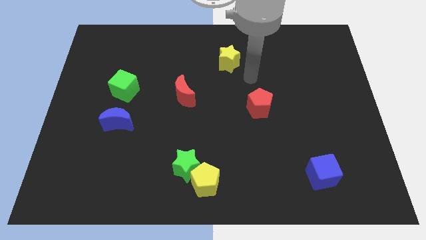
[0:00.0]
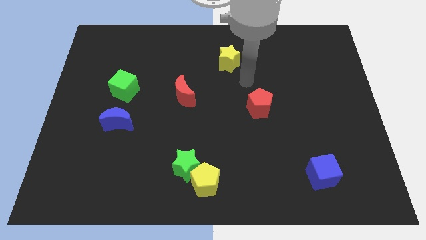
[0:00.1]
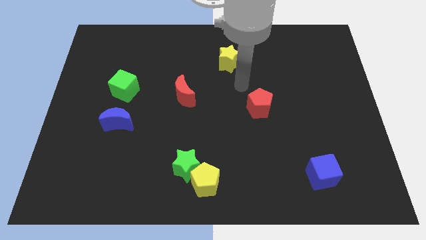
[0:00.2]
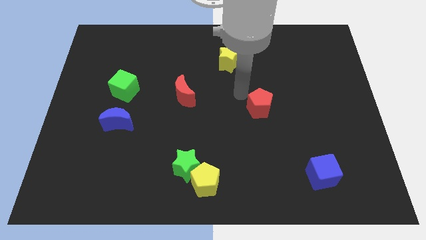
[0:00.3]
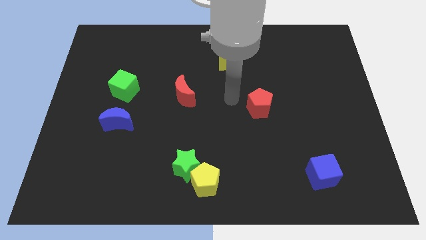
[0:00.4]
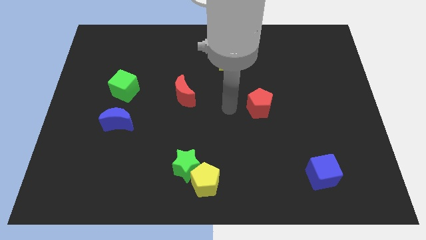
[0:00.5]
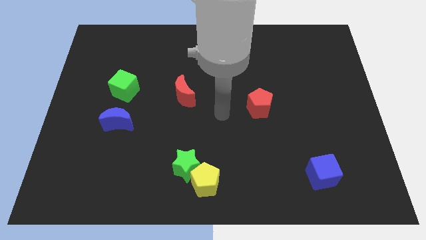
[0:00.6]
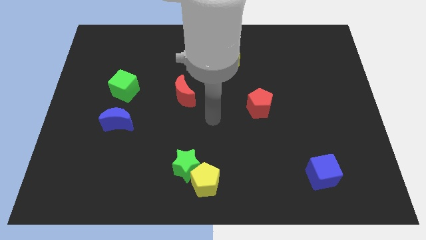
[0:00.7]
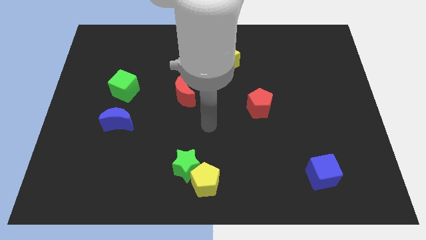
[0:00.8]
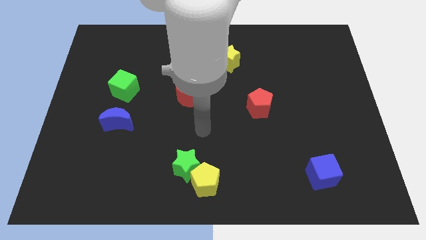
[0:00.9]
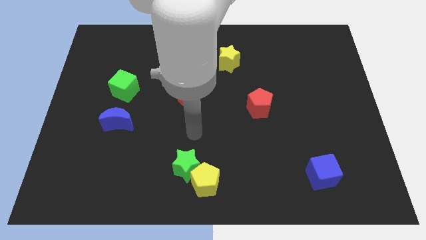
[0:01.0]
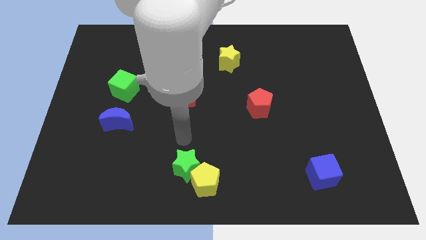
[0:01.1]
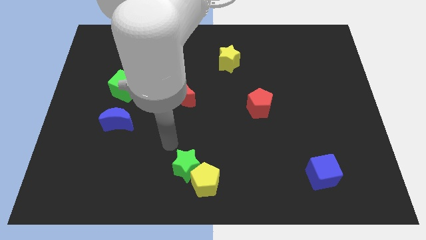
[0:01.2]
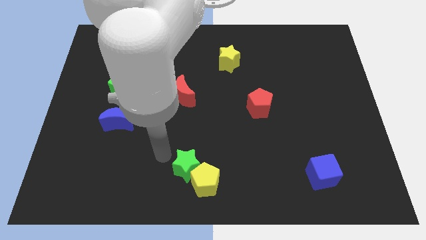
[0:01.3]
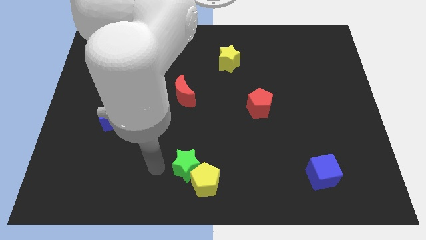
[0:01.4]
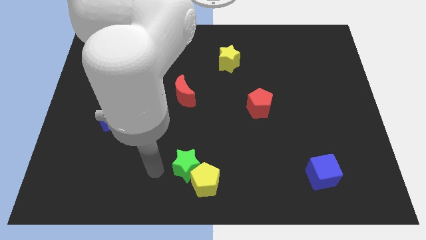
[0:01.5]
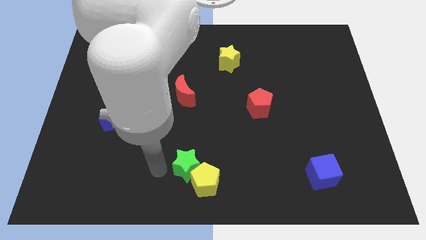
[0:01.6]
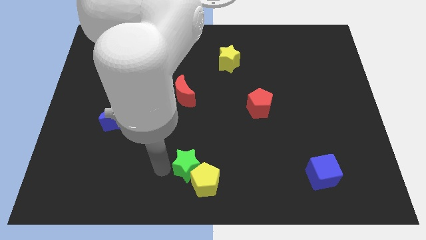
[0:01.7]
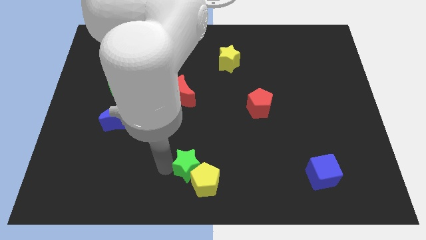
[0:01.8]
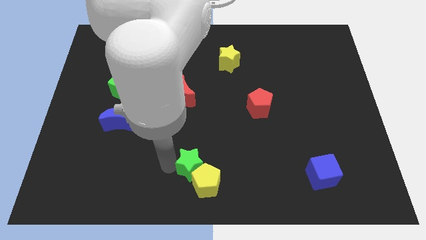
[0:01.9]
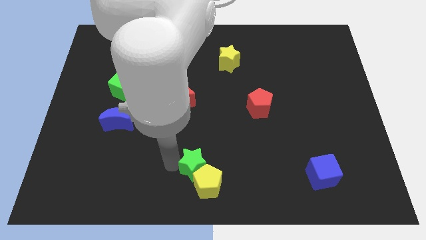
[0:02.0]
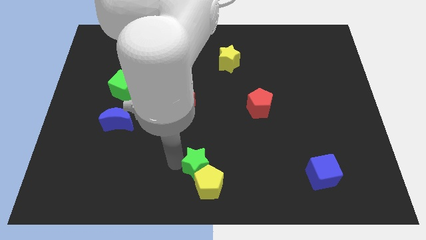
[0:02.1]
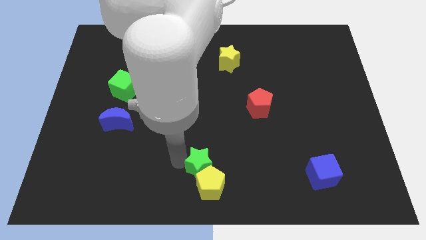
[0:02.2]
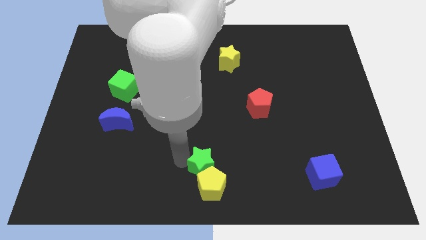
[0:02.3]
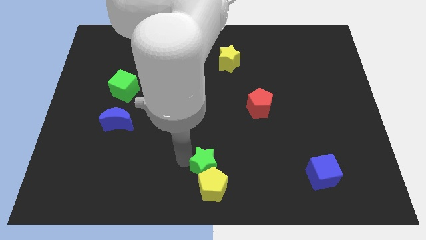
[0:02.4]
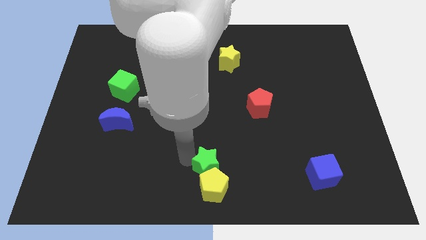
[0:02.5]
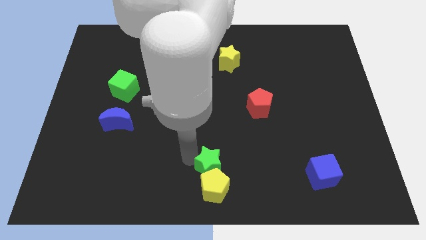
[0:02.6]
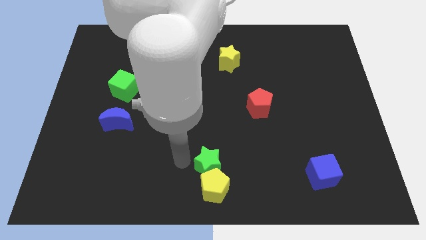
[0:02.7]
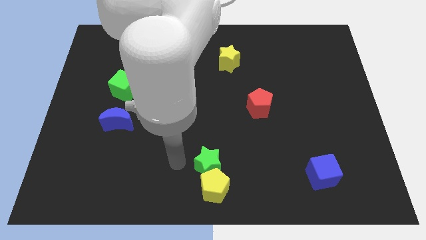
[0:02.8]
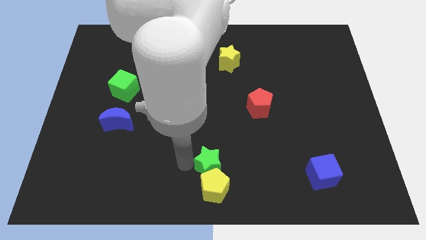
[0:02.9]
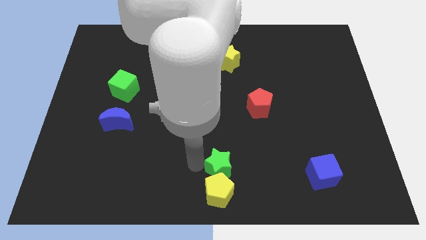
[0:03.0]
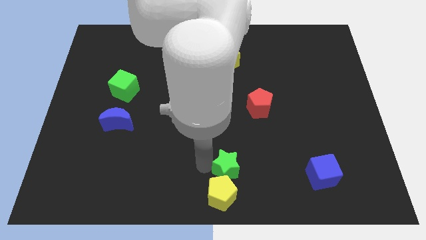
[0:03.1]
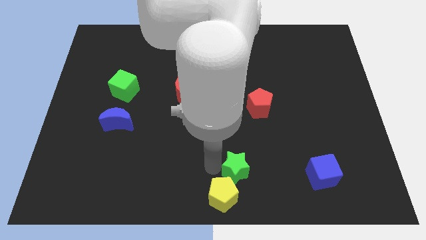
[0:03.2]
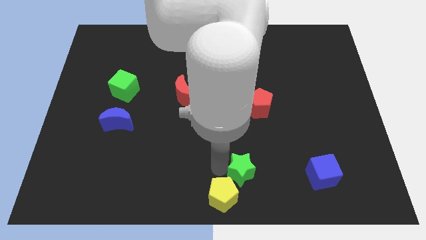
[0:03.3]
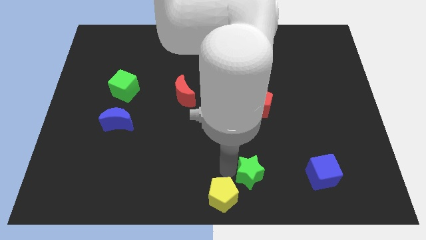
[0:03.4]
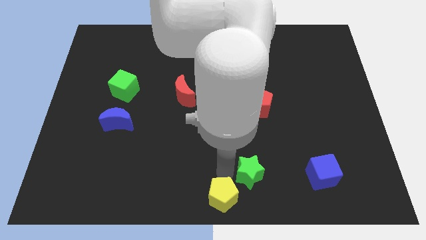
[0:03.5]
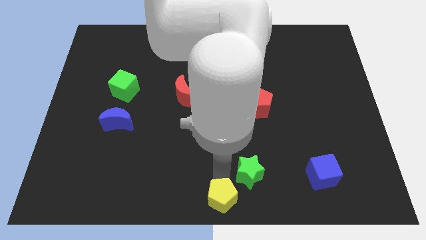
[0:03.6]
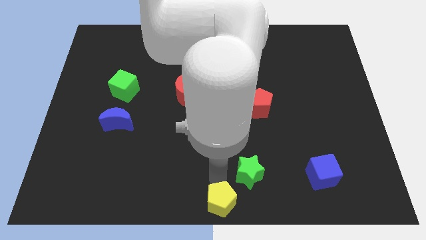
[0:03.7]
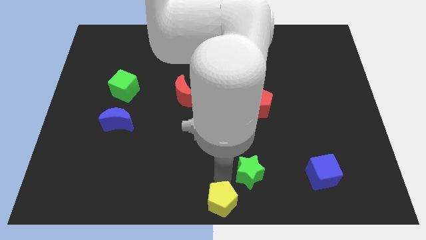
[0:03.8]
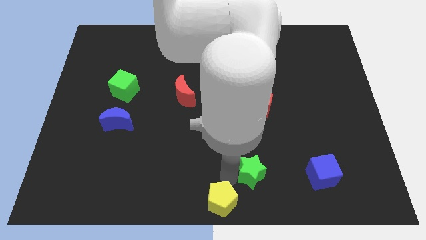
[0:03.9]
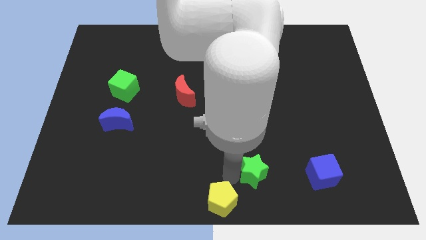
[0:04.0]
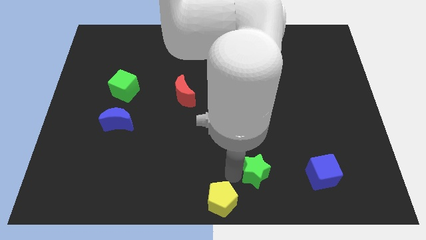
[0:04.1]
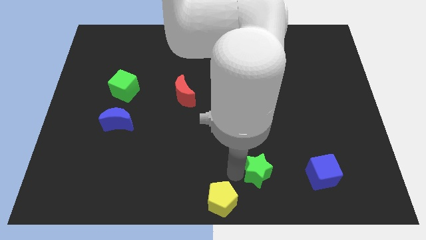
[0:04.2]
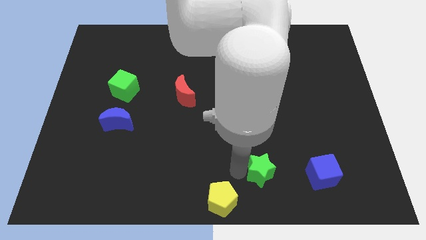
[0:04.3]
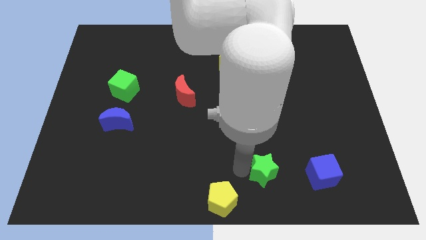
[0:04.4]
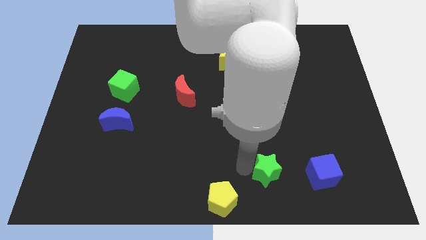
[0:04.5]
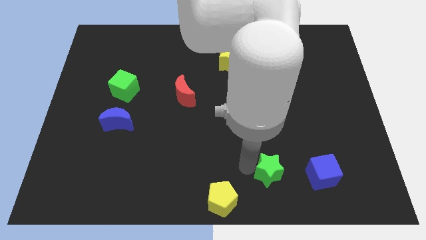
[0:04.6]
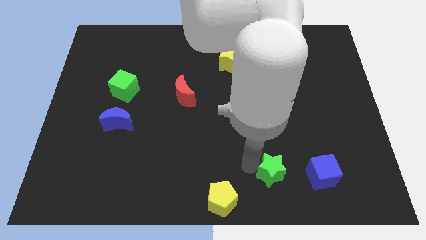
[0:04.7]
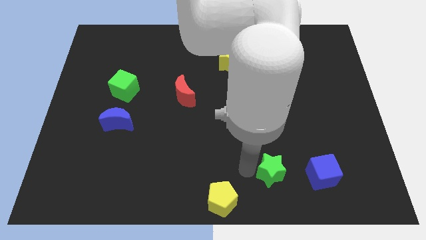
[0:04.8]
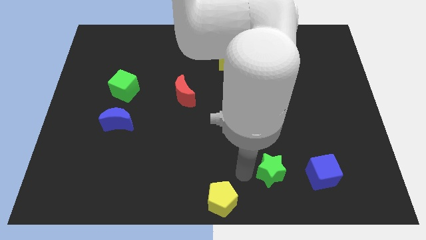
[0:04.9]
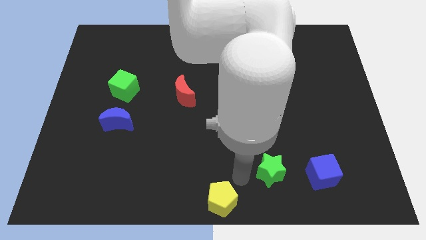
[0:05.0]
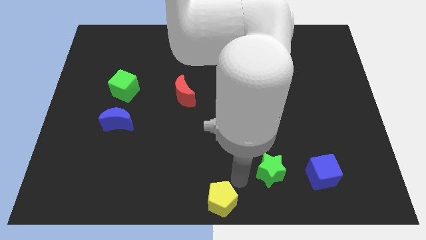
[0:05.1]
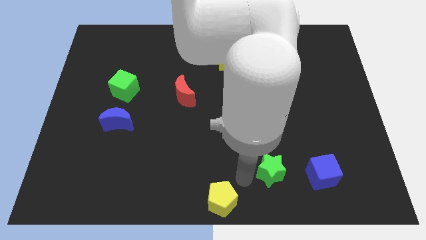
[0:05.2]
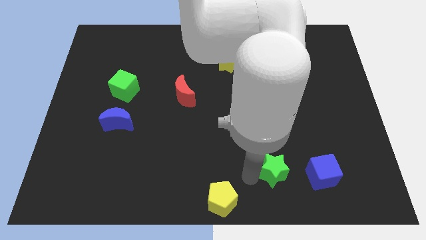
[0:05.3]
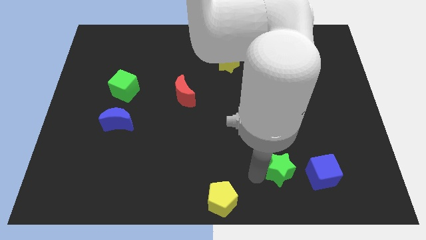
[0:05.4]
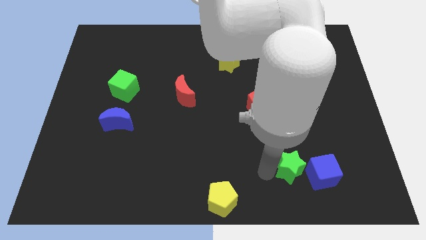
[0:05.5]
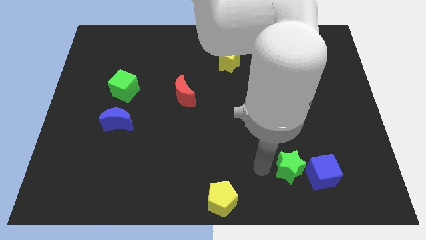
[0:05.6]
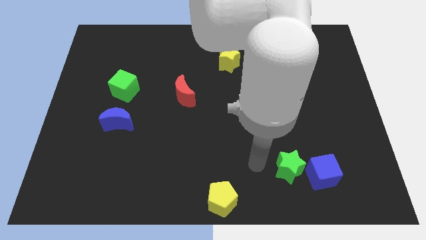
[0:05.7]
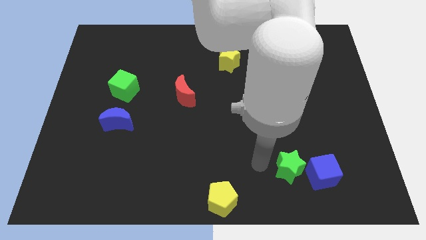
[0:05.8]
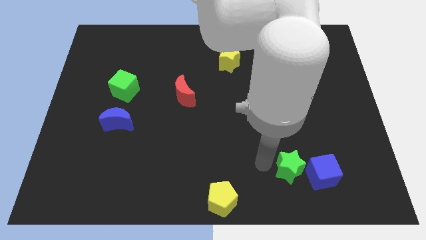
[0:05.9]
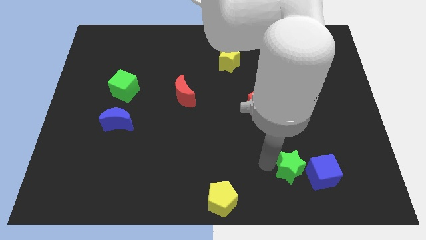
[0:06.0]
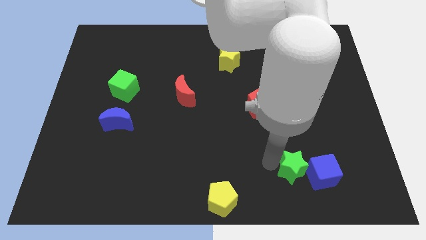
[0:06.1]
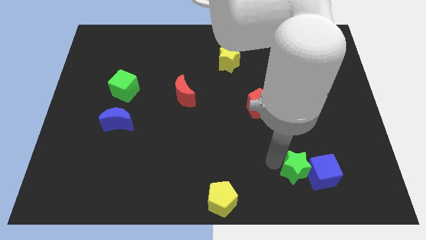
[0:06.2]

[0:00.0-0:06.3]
slide the green star to the blue cube
